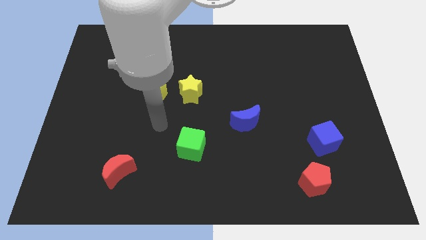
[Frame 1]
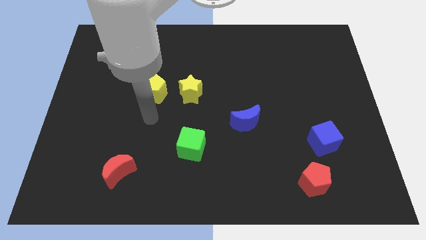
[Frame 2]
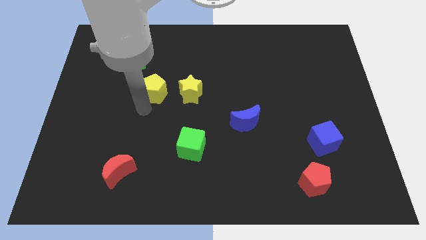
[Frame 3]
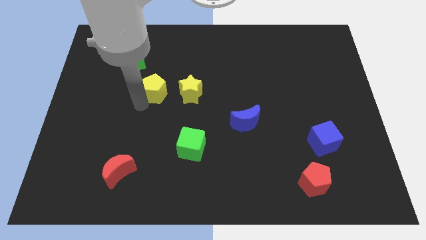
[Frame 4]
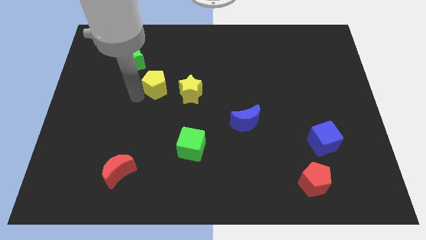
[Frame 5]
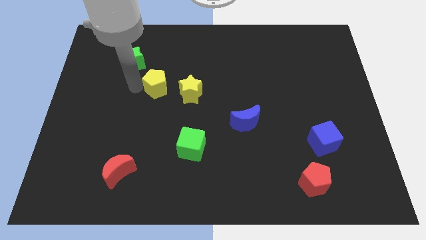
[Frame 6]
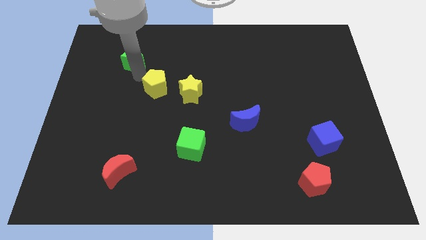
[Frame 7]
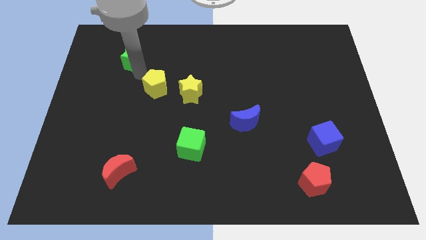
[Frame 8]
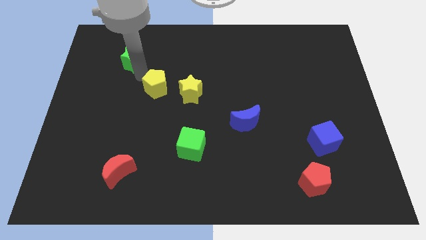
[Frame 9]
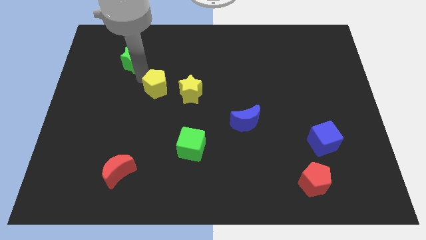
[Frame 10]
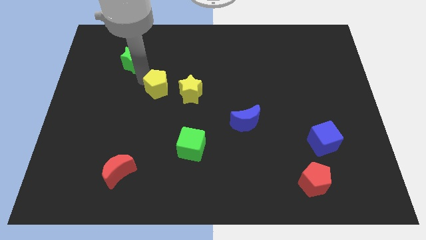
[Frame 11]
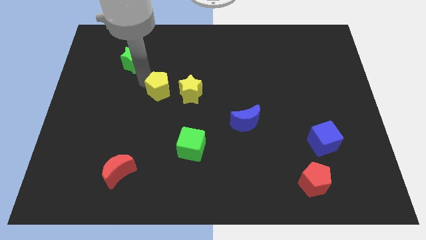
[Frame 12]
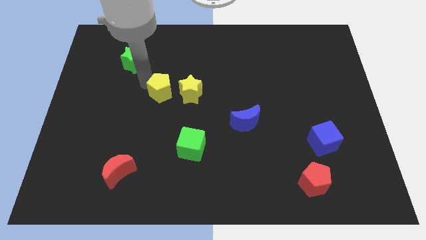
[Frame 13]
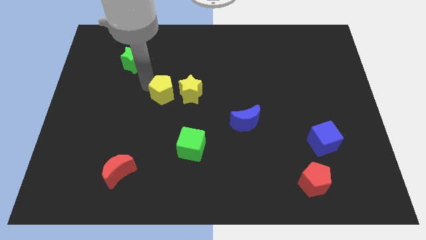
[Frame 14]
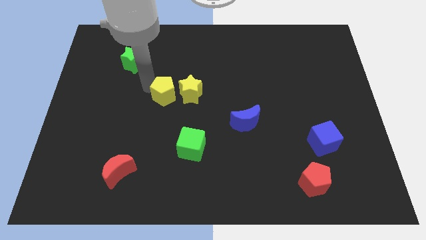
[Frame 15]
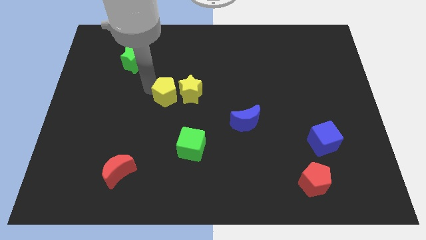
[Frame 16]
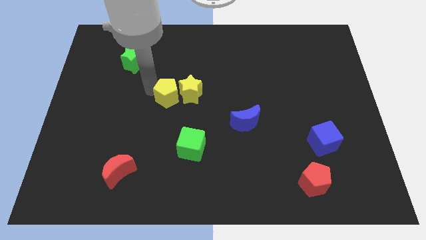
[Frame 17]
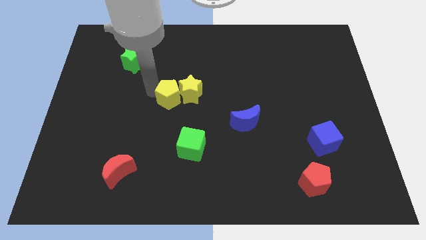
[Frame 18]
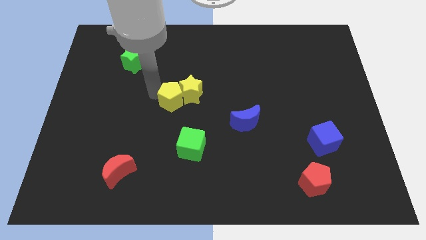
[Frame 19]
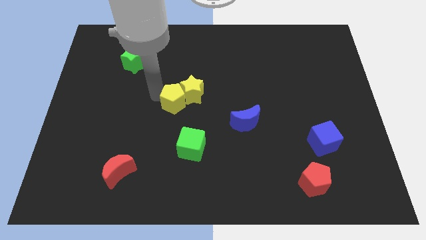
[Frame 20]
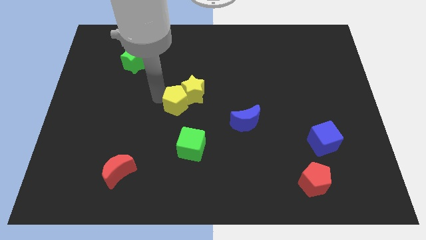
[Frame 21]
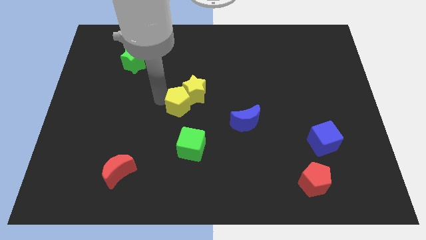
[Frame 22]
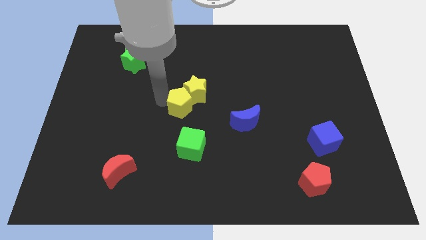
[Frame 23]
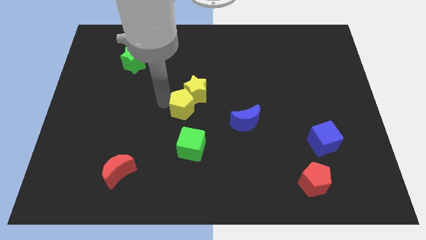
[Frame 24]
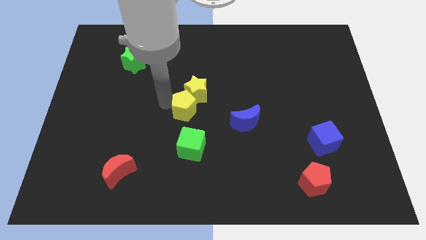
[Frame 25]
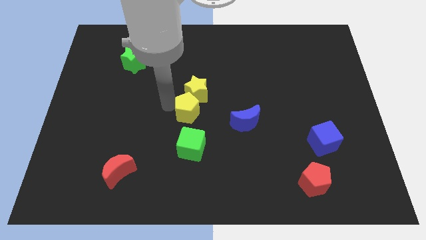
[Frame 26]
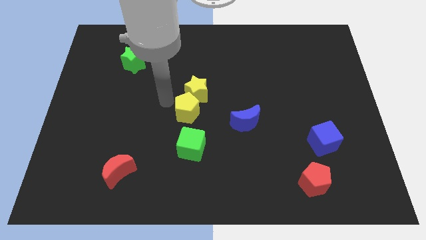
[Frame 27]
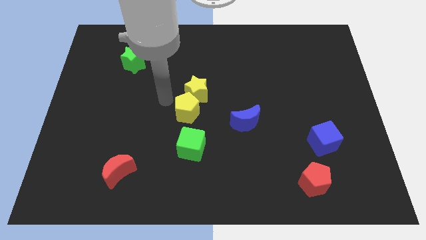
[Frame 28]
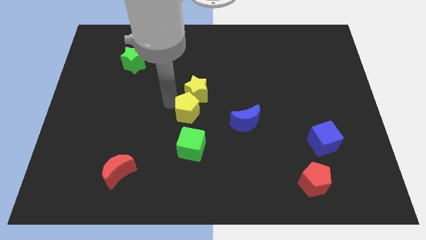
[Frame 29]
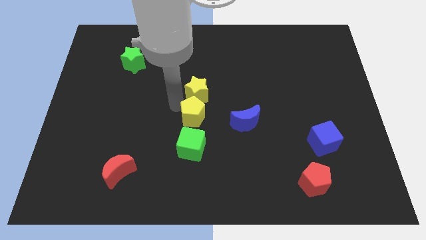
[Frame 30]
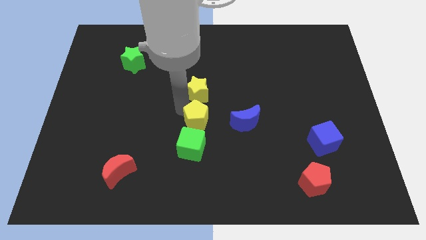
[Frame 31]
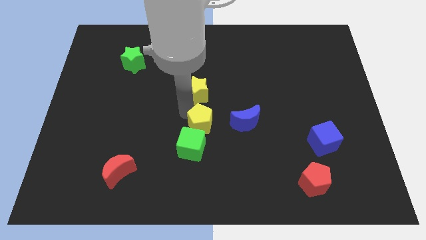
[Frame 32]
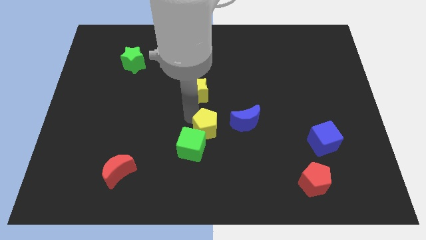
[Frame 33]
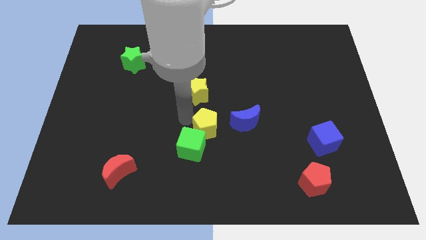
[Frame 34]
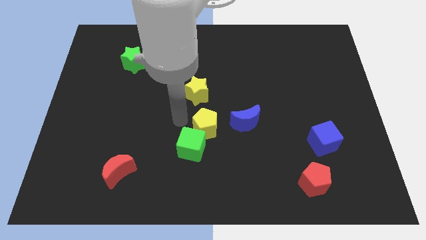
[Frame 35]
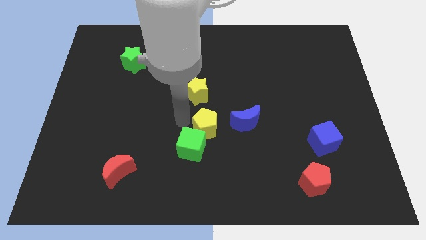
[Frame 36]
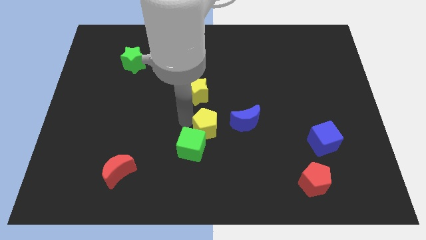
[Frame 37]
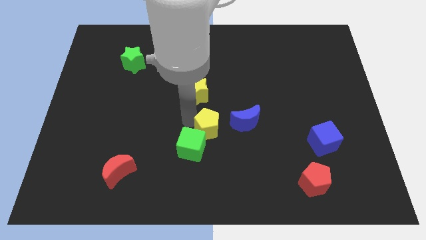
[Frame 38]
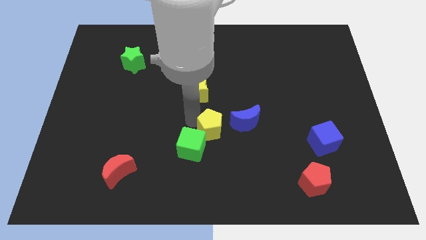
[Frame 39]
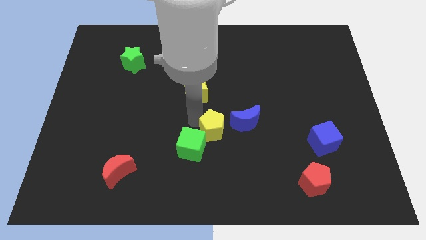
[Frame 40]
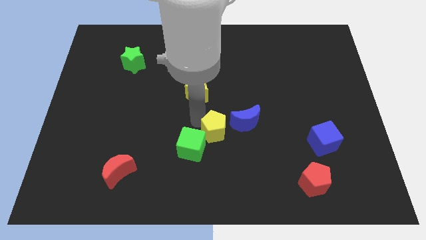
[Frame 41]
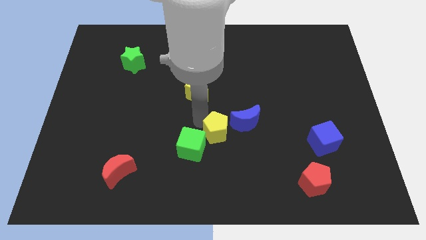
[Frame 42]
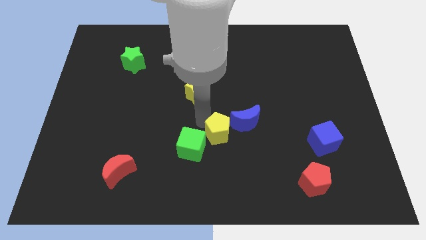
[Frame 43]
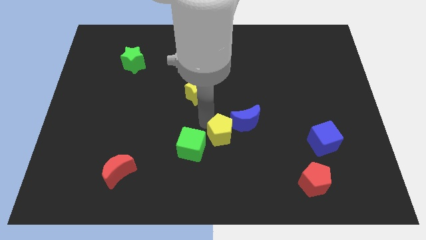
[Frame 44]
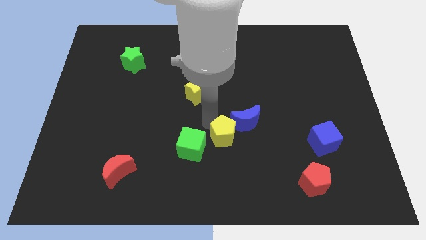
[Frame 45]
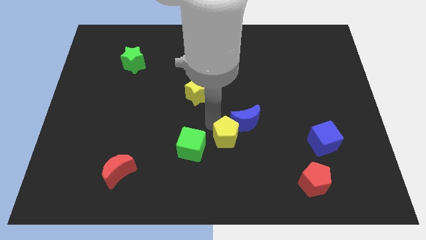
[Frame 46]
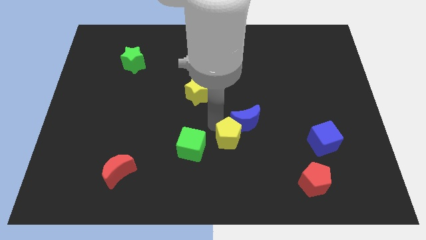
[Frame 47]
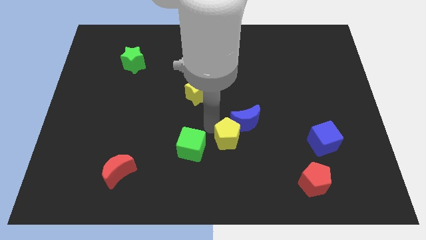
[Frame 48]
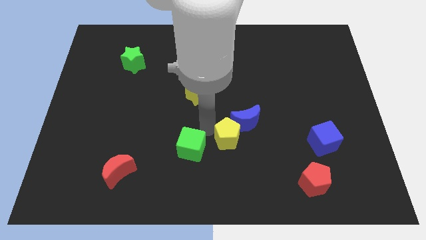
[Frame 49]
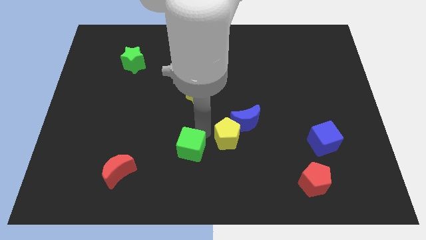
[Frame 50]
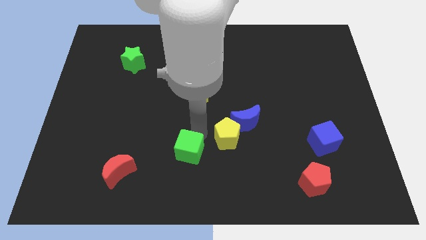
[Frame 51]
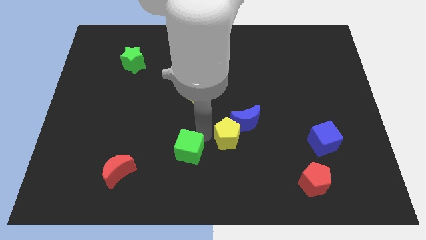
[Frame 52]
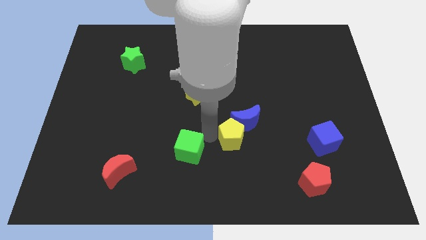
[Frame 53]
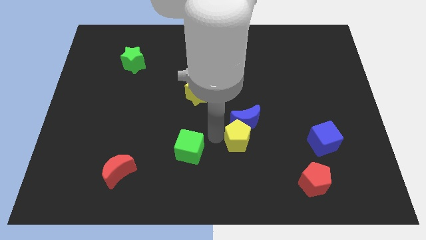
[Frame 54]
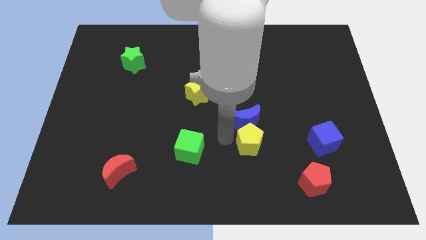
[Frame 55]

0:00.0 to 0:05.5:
slide the yellow pentagon just left of the blue cube

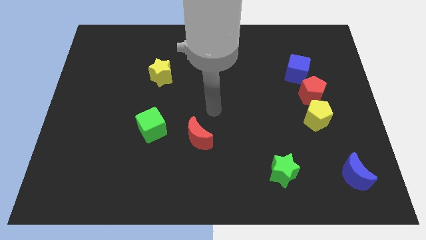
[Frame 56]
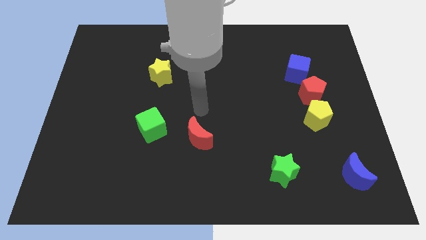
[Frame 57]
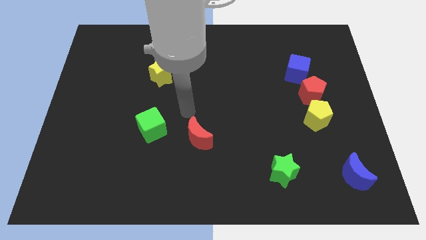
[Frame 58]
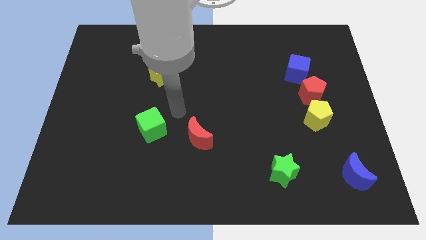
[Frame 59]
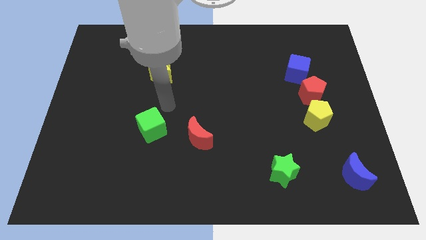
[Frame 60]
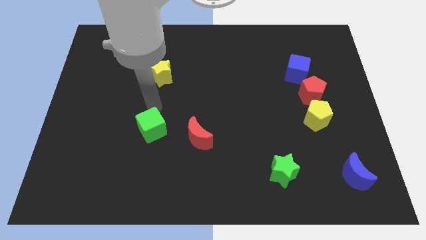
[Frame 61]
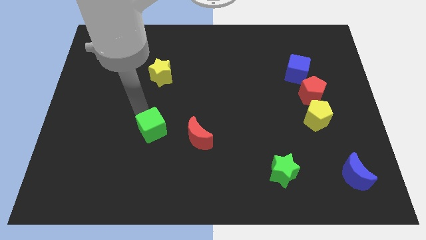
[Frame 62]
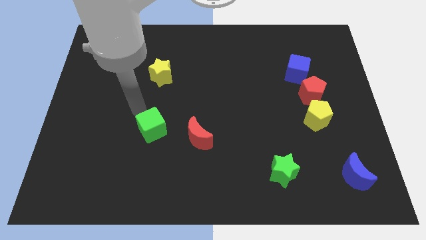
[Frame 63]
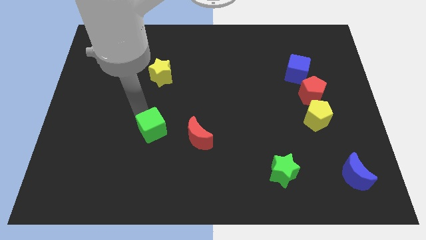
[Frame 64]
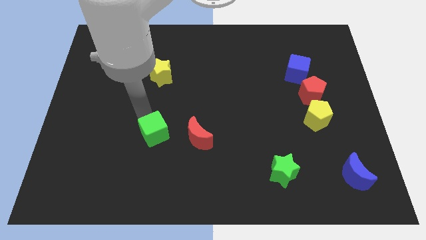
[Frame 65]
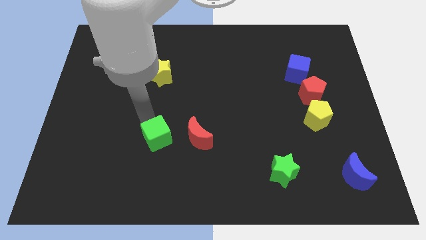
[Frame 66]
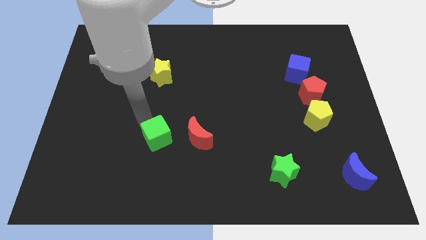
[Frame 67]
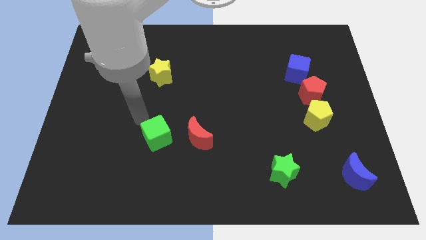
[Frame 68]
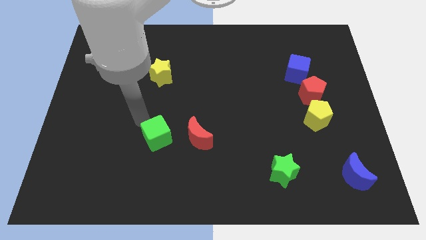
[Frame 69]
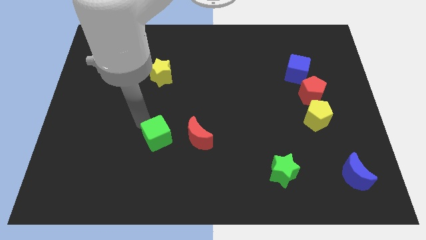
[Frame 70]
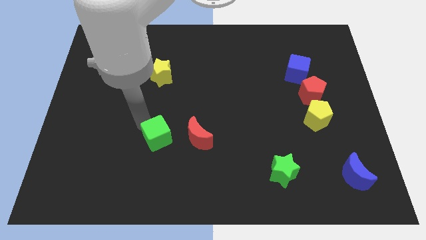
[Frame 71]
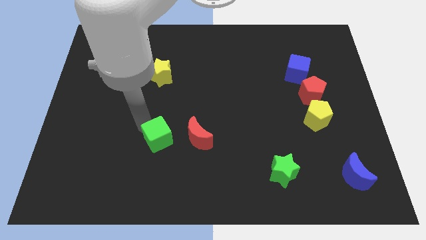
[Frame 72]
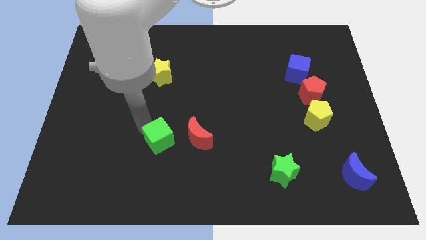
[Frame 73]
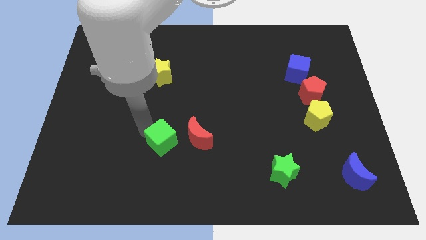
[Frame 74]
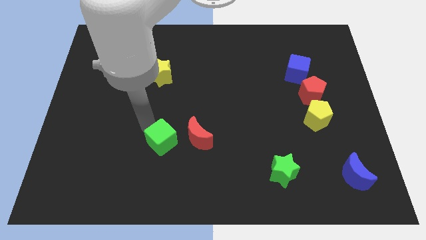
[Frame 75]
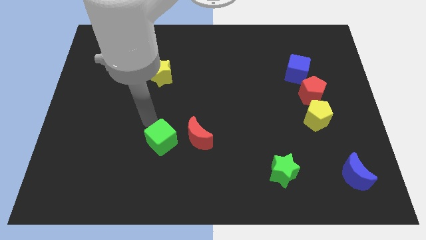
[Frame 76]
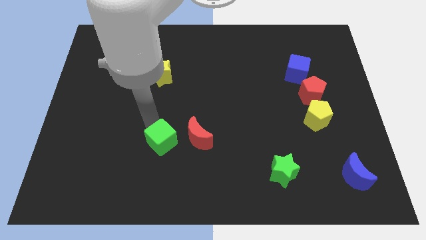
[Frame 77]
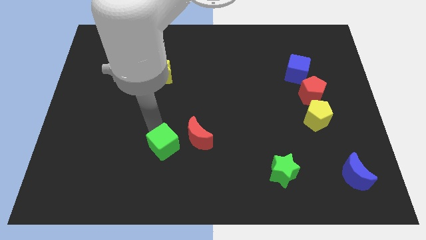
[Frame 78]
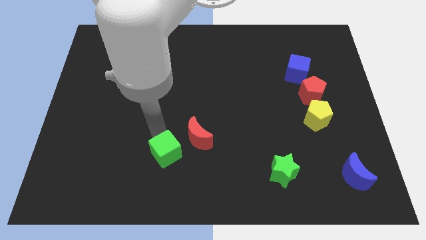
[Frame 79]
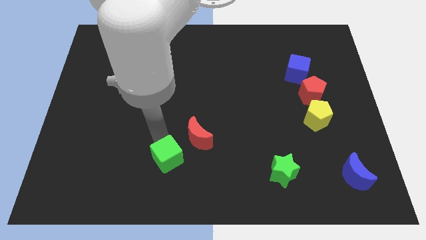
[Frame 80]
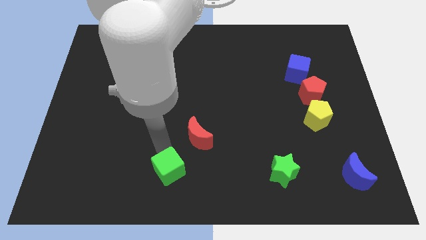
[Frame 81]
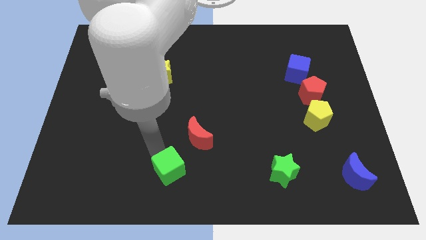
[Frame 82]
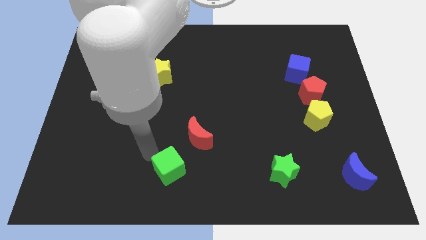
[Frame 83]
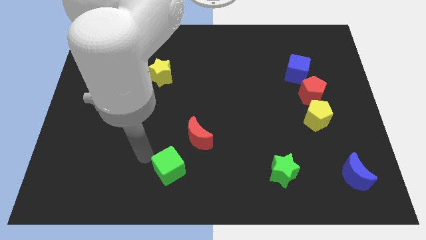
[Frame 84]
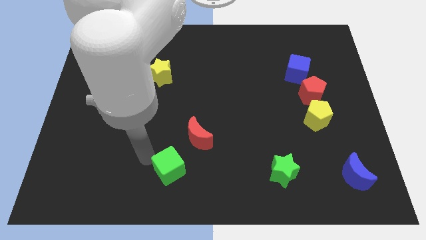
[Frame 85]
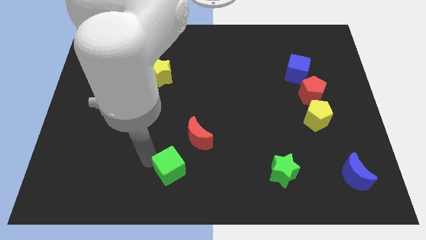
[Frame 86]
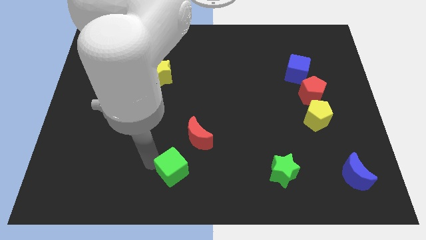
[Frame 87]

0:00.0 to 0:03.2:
put the green cube to the bottom of the red moon
